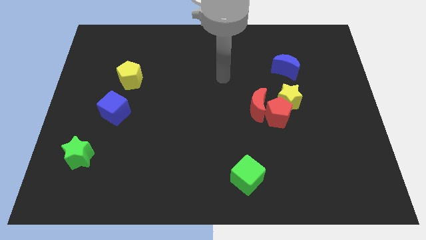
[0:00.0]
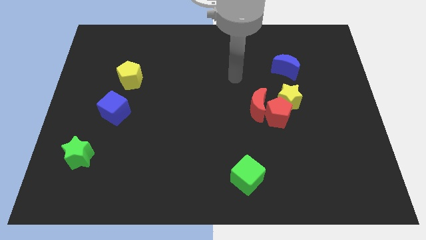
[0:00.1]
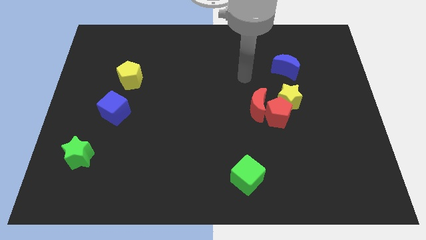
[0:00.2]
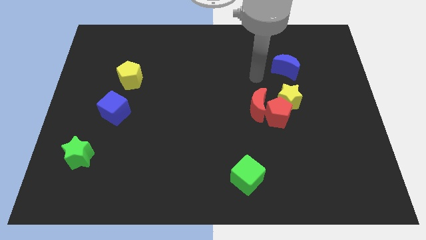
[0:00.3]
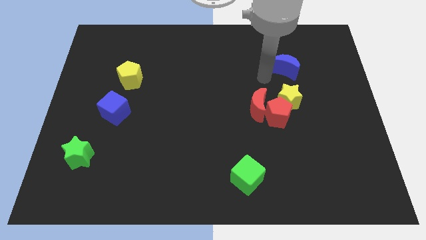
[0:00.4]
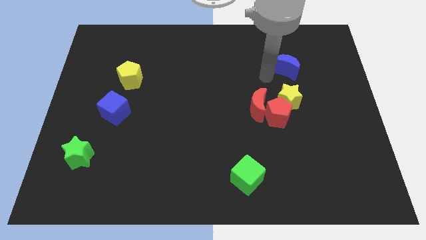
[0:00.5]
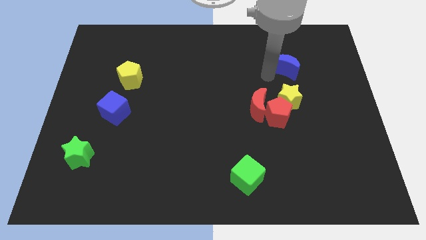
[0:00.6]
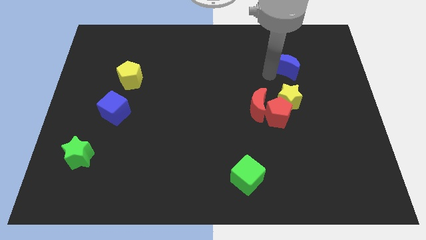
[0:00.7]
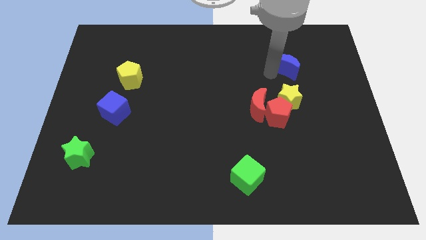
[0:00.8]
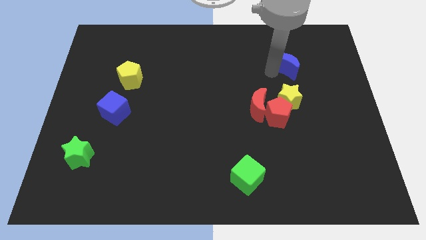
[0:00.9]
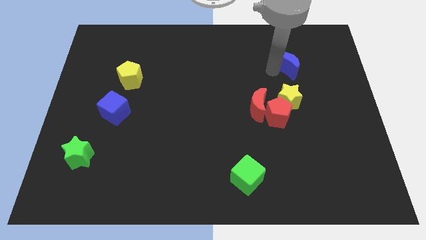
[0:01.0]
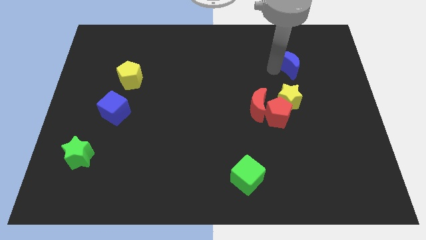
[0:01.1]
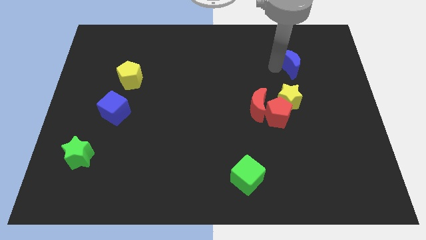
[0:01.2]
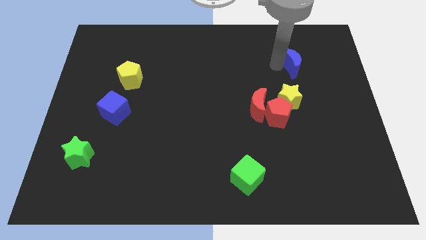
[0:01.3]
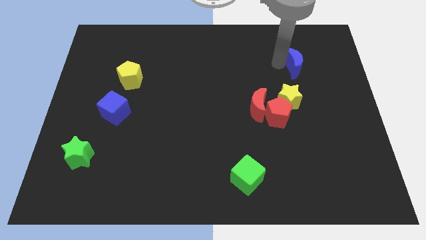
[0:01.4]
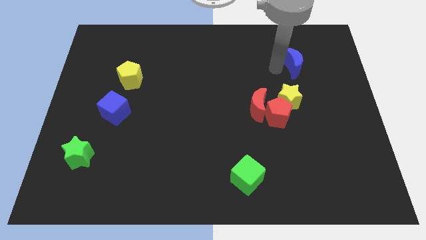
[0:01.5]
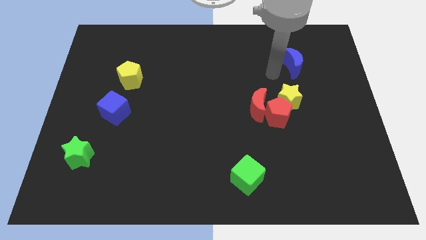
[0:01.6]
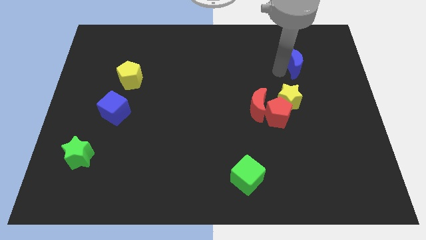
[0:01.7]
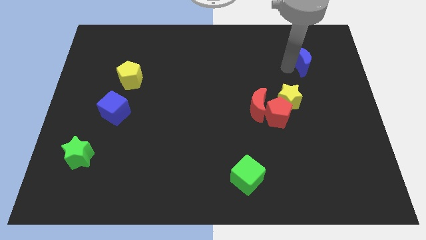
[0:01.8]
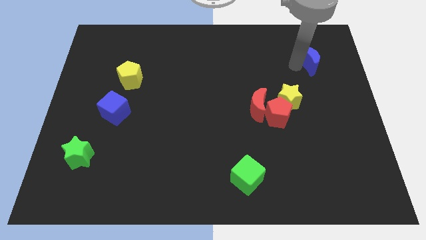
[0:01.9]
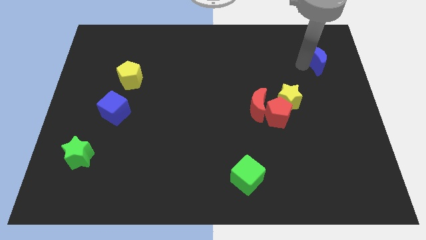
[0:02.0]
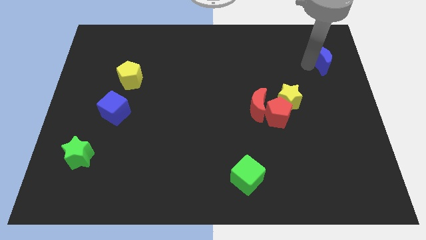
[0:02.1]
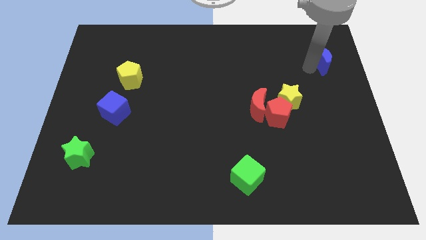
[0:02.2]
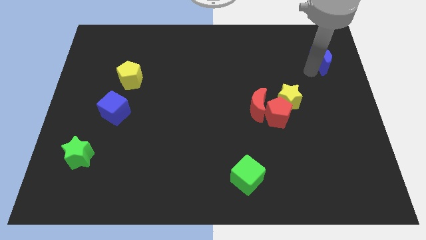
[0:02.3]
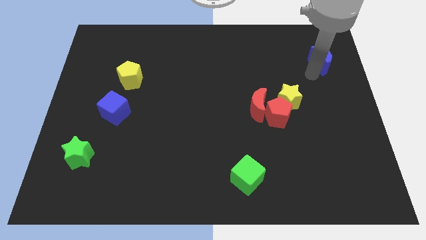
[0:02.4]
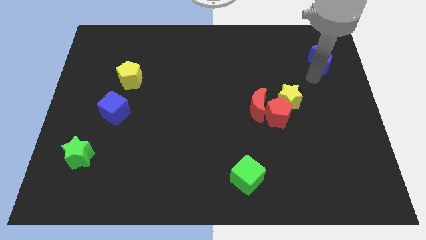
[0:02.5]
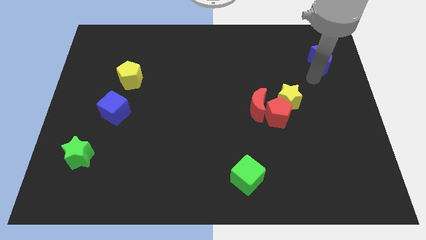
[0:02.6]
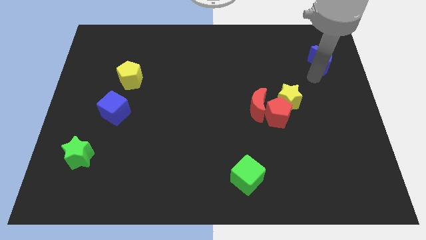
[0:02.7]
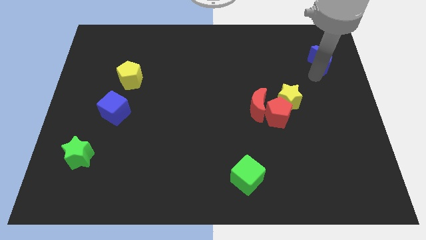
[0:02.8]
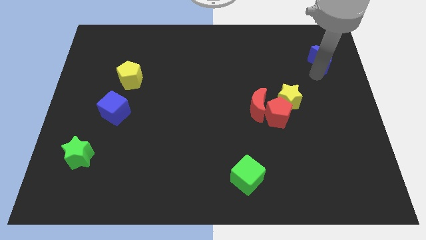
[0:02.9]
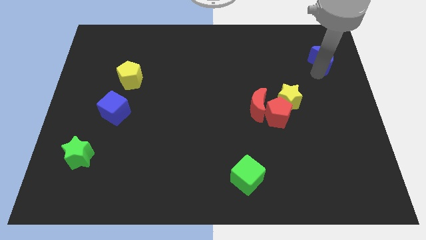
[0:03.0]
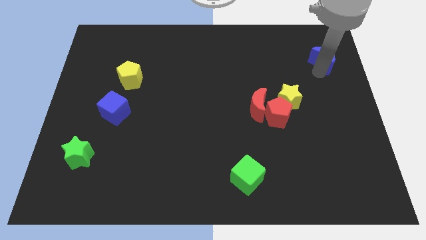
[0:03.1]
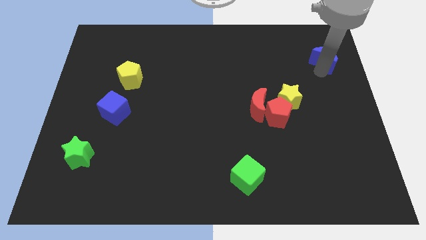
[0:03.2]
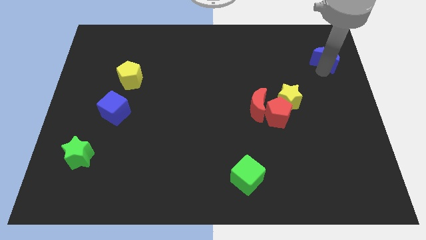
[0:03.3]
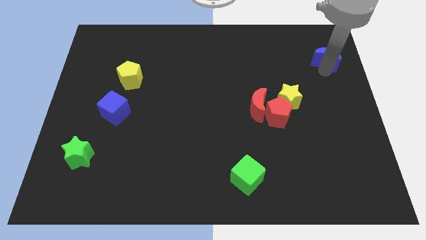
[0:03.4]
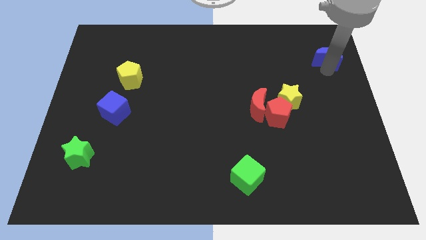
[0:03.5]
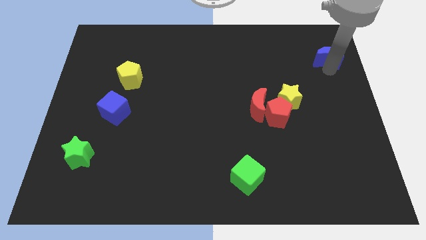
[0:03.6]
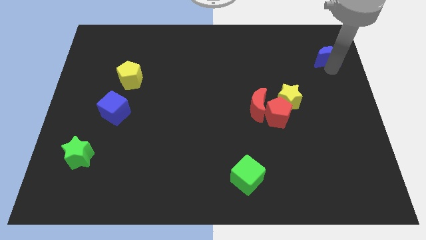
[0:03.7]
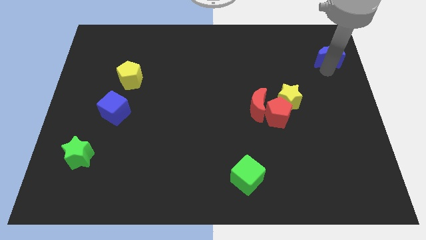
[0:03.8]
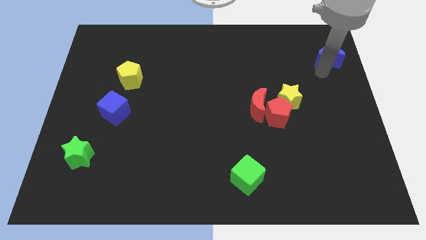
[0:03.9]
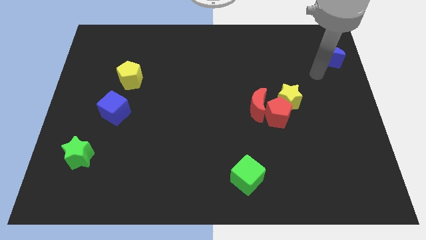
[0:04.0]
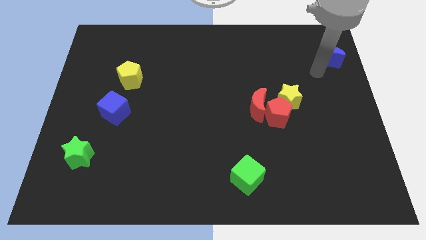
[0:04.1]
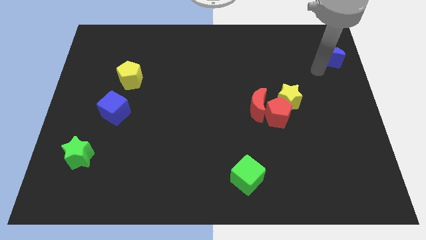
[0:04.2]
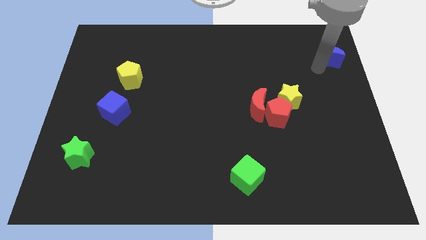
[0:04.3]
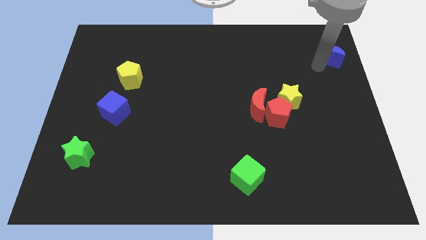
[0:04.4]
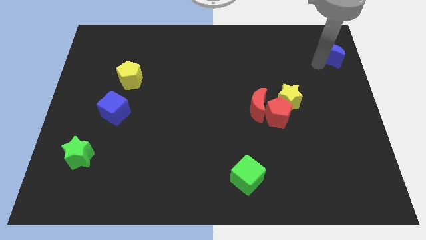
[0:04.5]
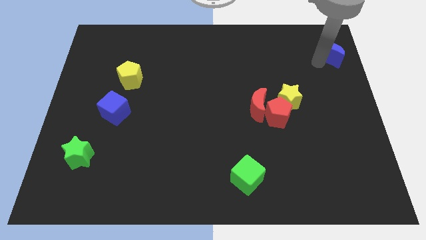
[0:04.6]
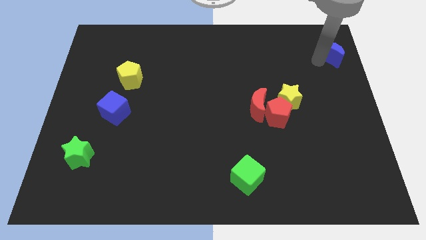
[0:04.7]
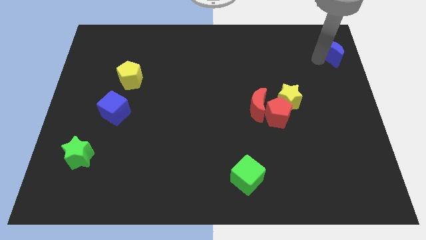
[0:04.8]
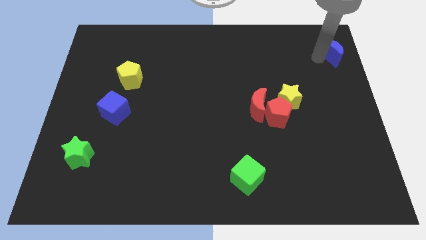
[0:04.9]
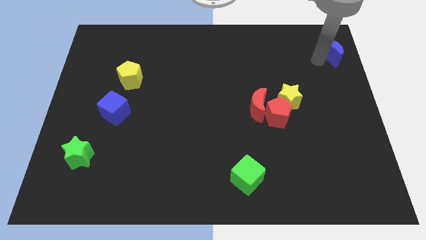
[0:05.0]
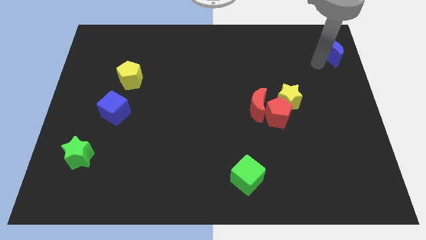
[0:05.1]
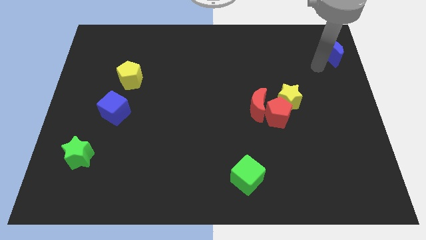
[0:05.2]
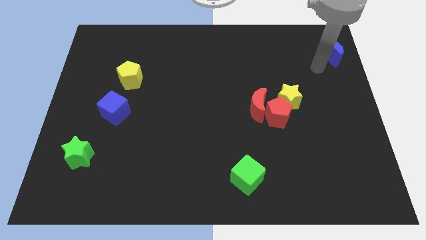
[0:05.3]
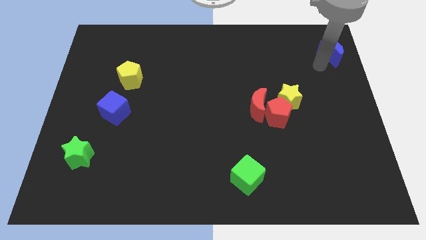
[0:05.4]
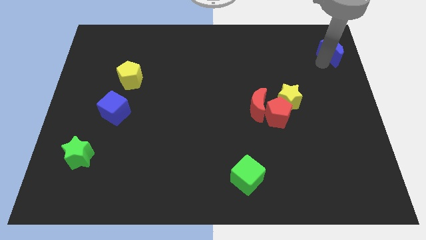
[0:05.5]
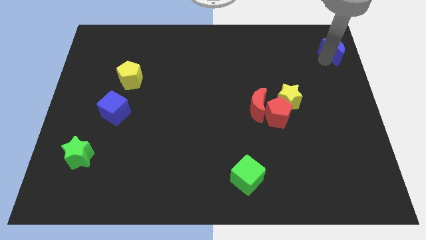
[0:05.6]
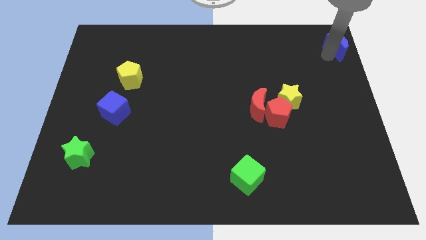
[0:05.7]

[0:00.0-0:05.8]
put the blue moon to the top right
